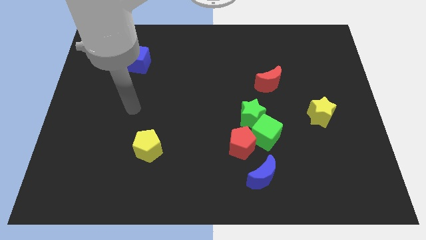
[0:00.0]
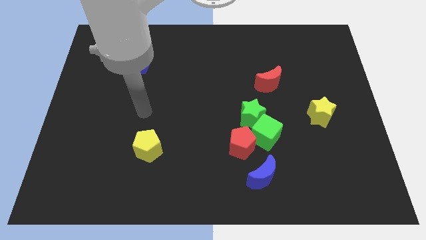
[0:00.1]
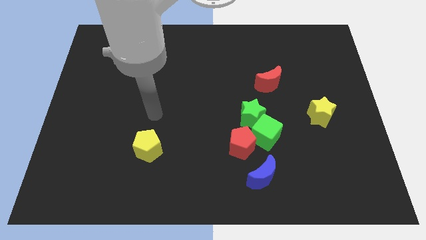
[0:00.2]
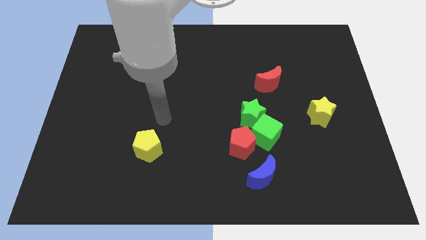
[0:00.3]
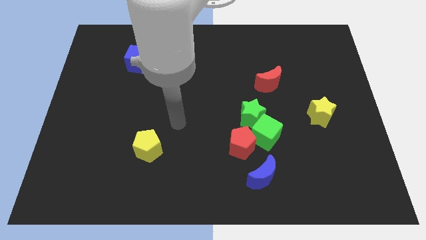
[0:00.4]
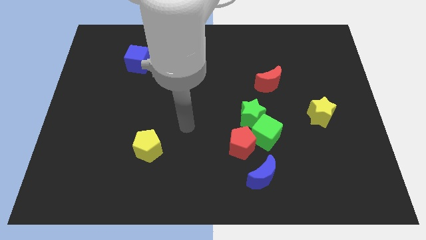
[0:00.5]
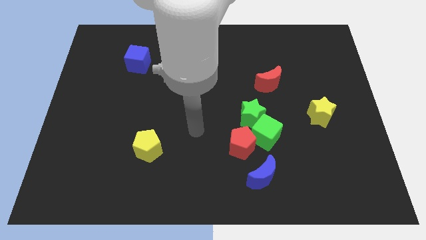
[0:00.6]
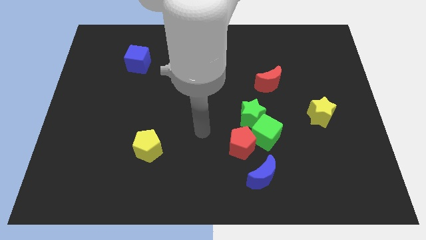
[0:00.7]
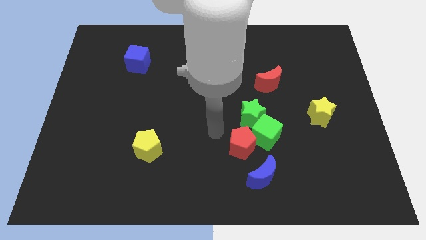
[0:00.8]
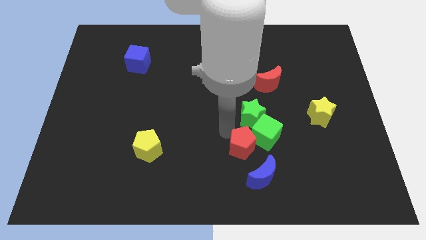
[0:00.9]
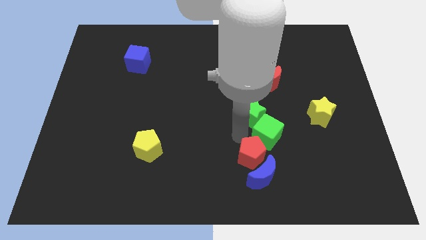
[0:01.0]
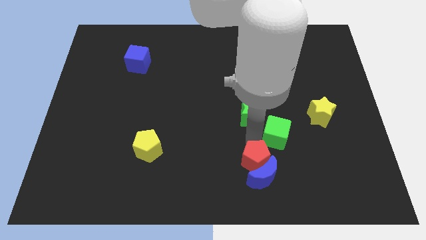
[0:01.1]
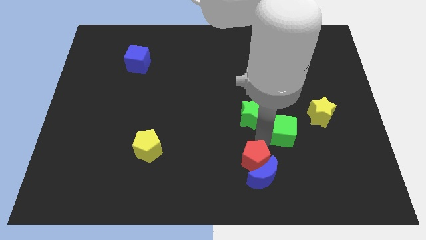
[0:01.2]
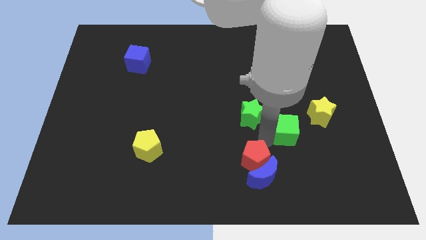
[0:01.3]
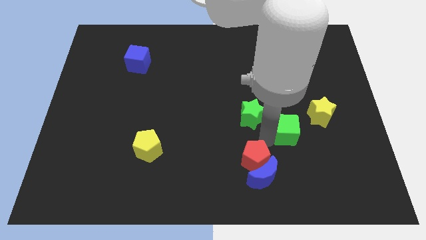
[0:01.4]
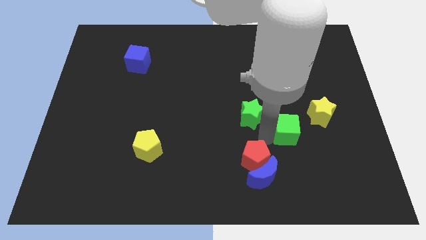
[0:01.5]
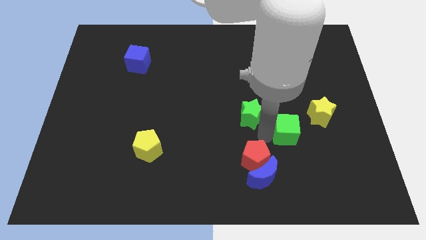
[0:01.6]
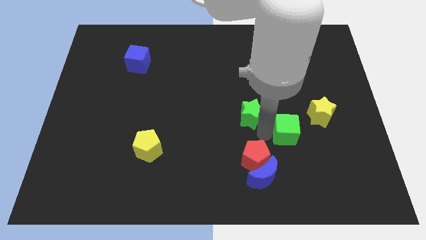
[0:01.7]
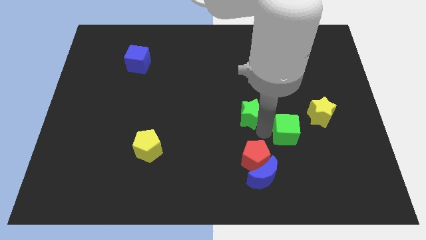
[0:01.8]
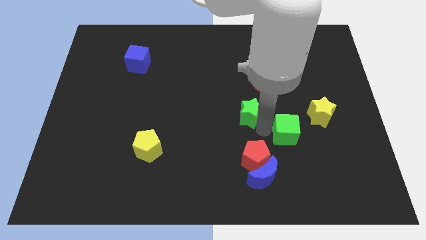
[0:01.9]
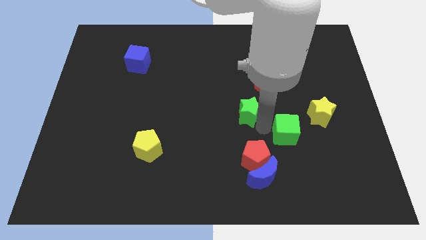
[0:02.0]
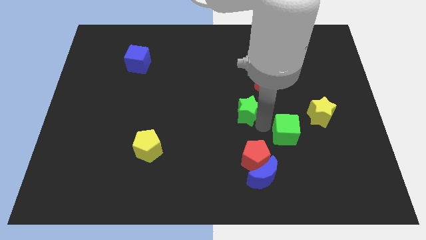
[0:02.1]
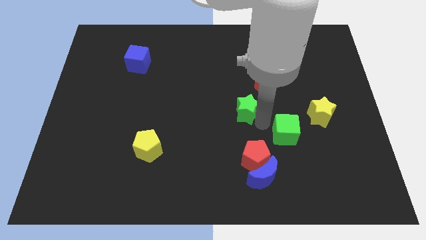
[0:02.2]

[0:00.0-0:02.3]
move the green star away from the green cube and red pentagon

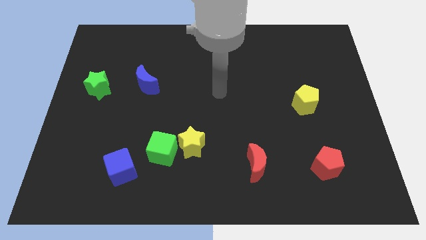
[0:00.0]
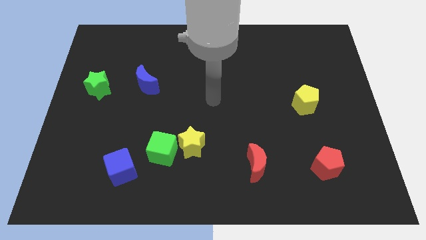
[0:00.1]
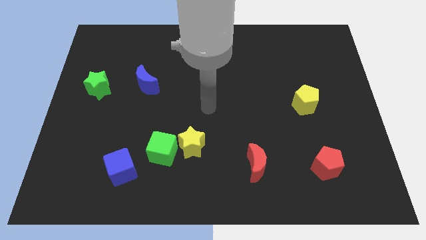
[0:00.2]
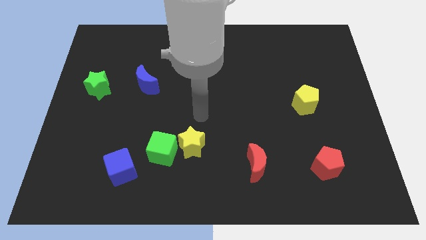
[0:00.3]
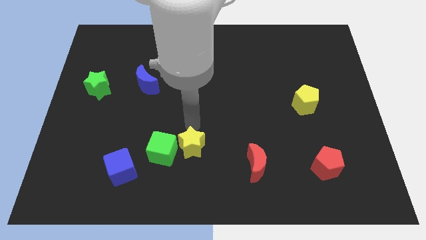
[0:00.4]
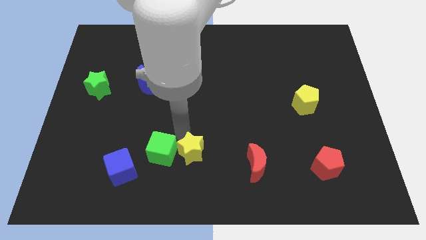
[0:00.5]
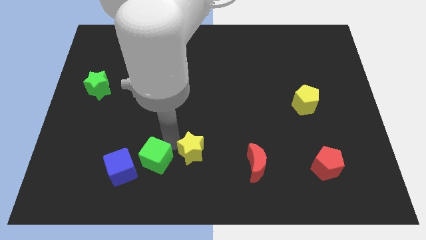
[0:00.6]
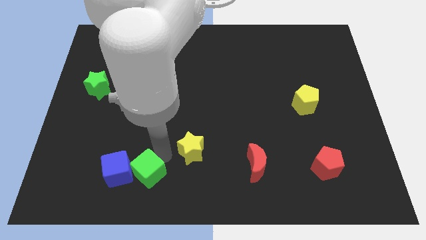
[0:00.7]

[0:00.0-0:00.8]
separate the yellow star from the green cube

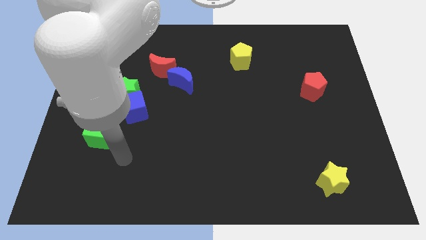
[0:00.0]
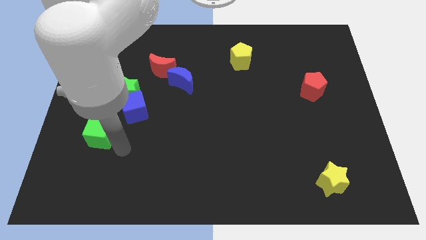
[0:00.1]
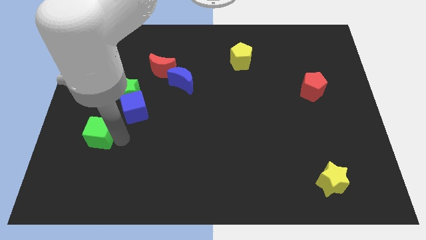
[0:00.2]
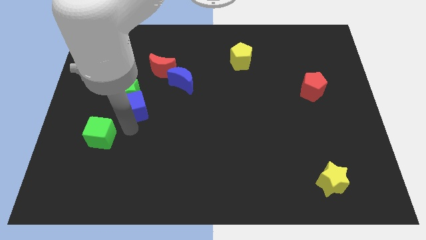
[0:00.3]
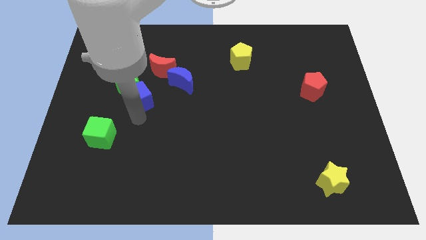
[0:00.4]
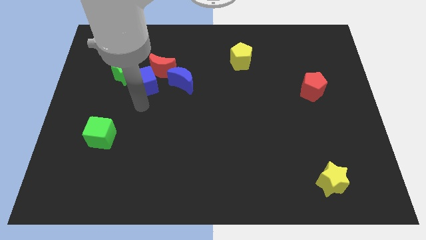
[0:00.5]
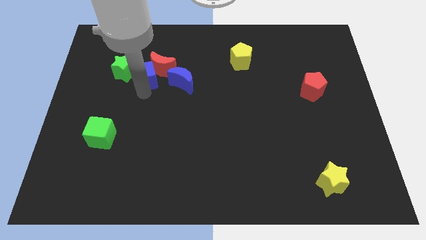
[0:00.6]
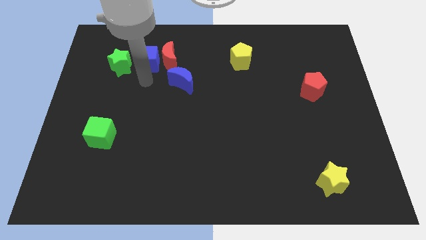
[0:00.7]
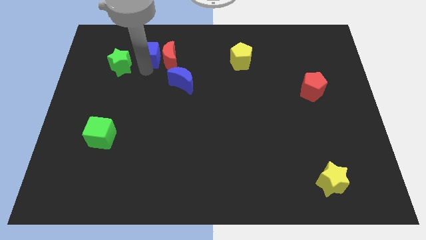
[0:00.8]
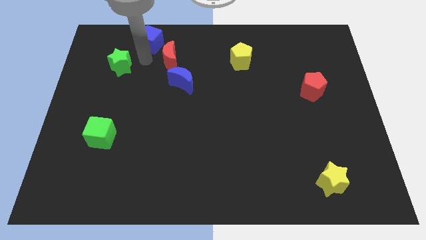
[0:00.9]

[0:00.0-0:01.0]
separate the green star from the blue cube

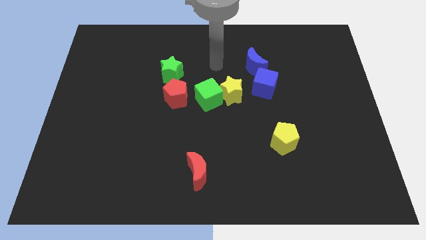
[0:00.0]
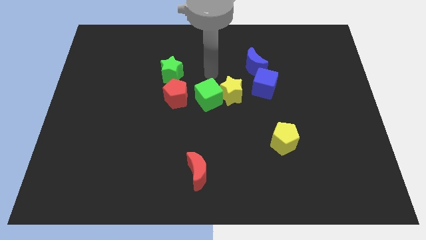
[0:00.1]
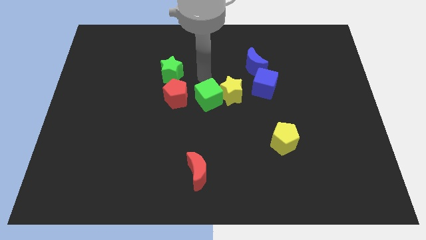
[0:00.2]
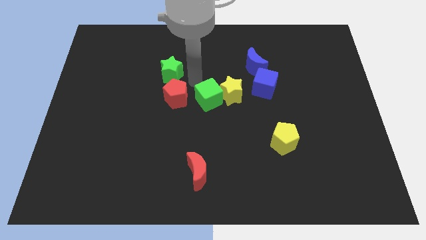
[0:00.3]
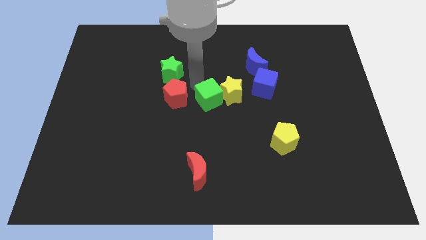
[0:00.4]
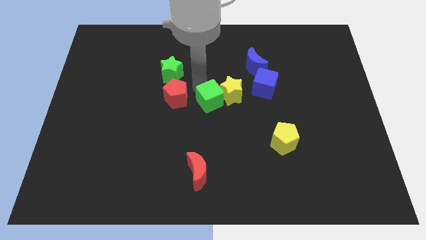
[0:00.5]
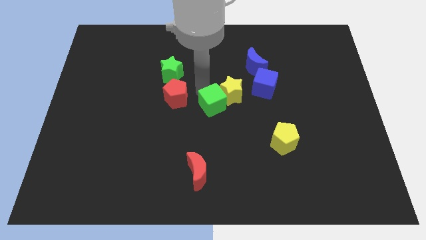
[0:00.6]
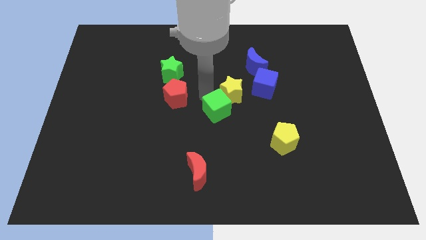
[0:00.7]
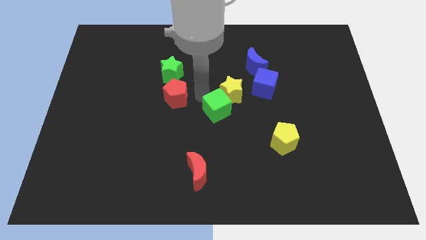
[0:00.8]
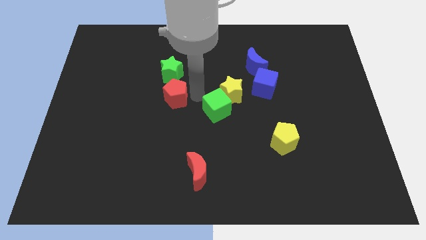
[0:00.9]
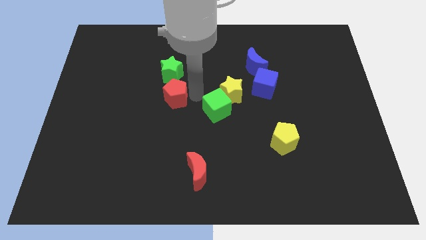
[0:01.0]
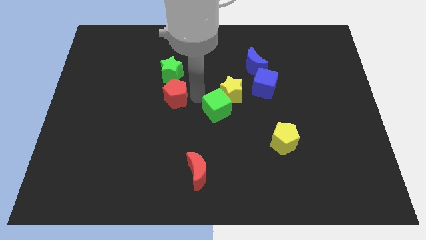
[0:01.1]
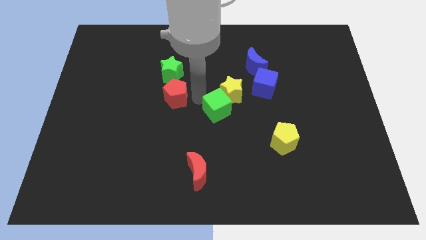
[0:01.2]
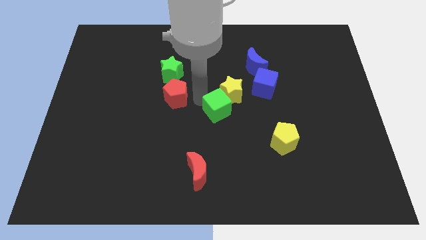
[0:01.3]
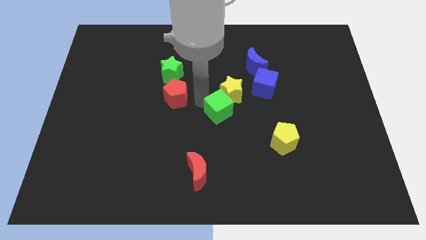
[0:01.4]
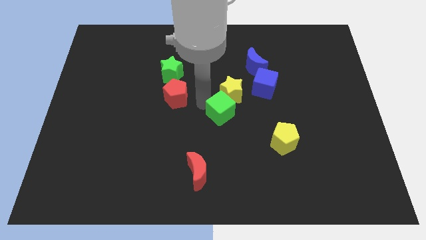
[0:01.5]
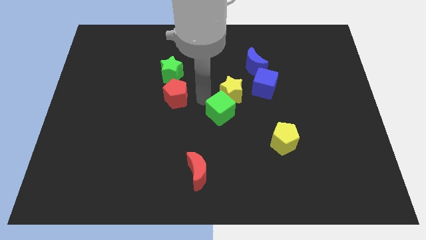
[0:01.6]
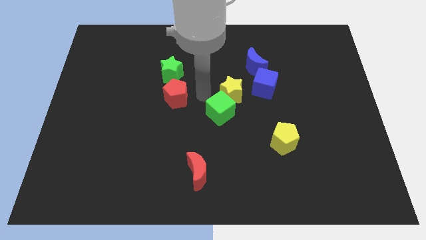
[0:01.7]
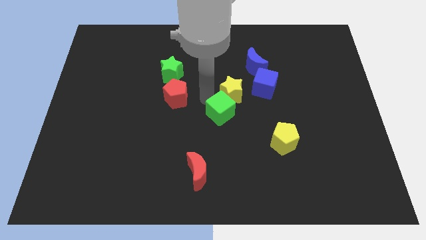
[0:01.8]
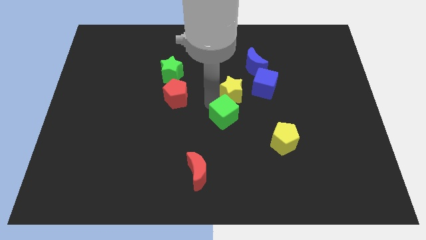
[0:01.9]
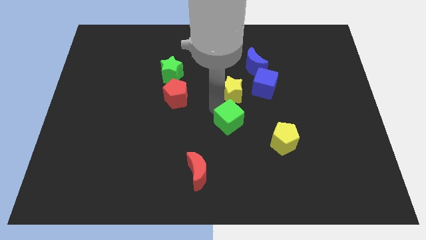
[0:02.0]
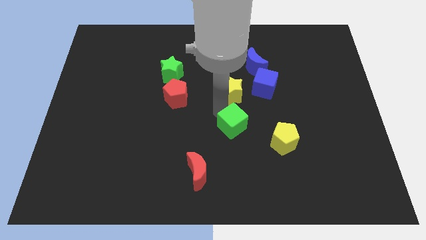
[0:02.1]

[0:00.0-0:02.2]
pull the green cube apart from the yellow star and red pentagon

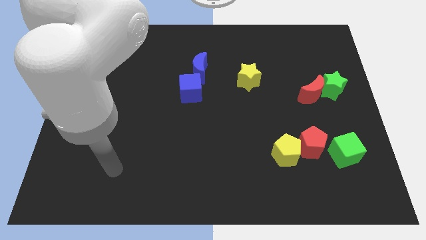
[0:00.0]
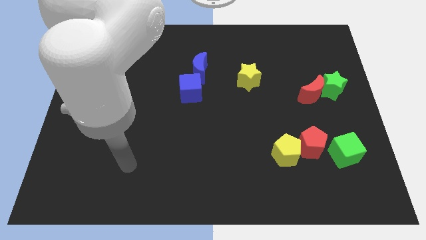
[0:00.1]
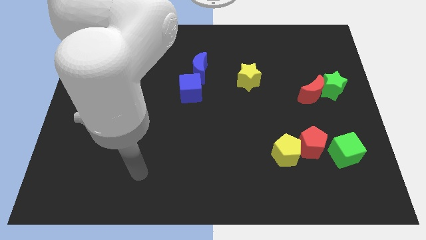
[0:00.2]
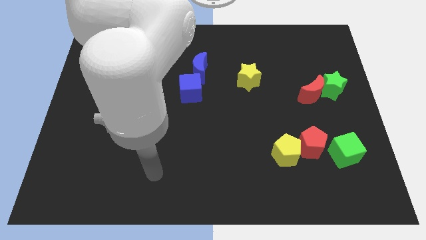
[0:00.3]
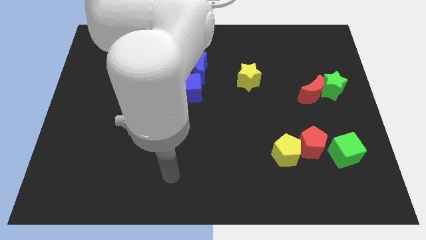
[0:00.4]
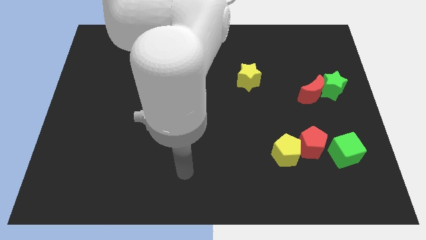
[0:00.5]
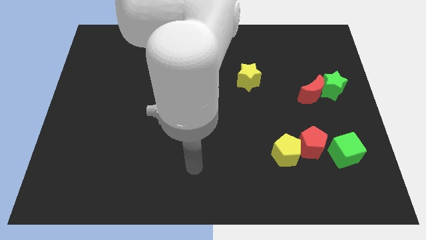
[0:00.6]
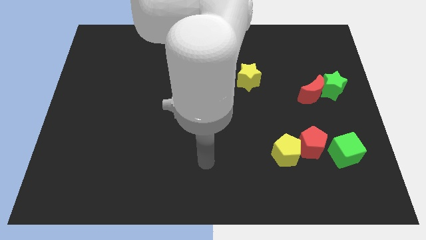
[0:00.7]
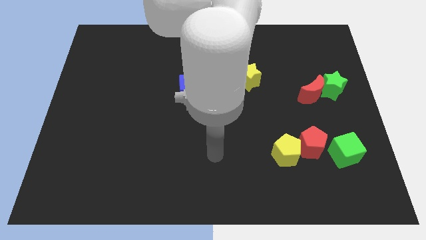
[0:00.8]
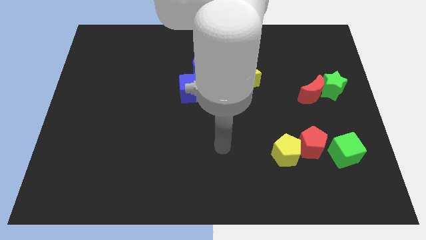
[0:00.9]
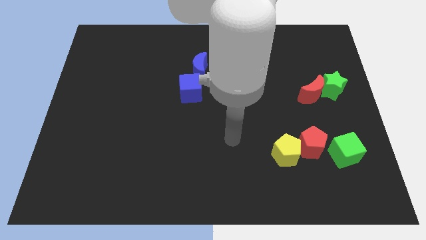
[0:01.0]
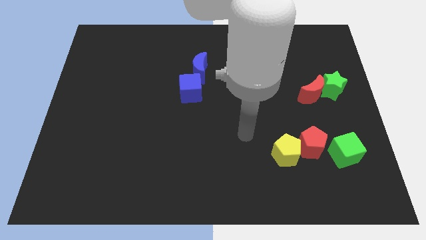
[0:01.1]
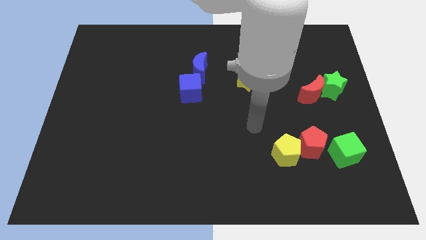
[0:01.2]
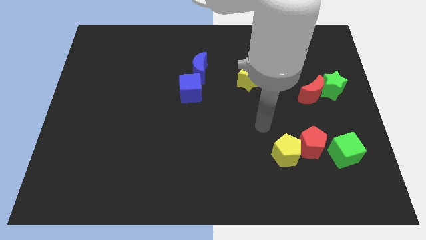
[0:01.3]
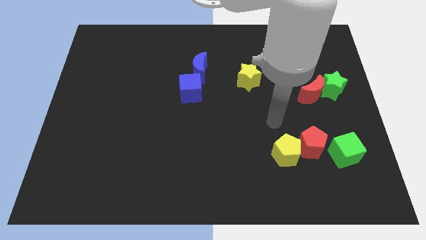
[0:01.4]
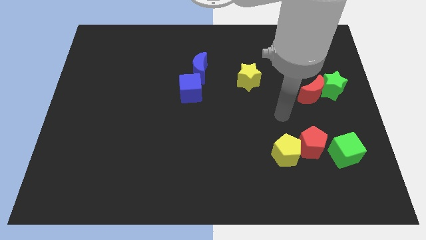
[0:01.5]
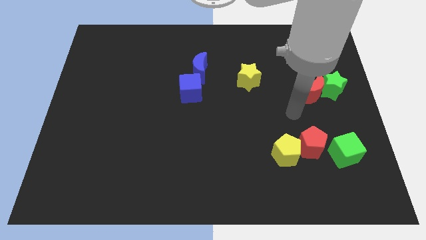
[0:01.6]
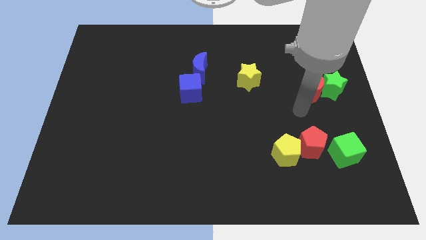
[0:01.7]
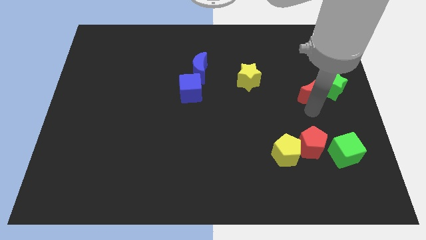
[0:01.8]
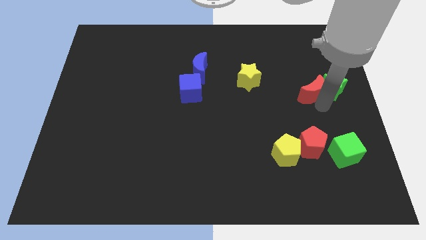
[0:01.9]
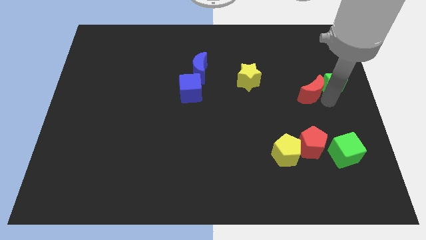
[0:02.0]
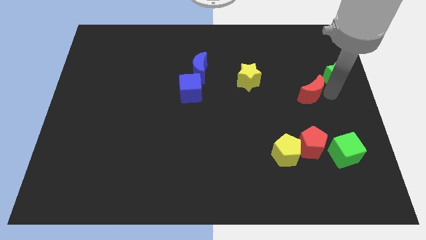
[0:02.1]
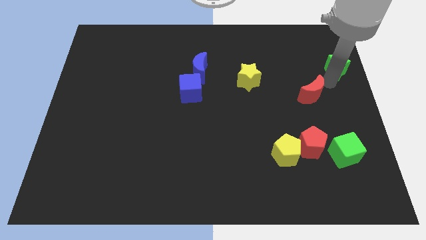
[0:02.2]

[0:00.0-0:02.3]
separate the red moon from the green star

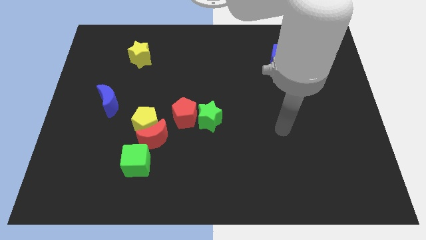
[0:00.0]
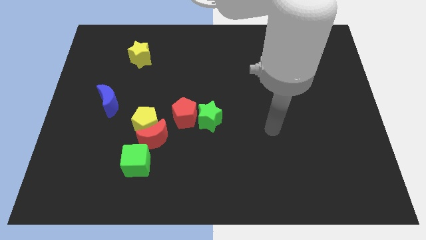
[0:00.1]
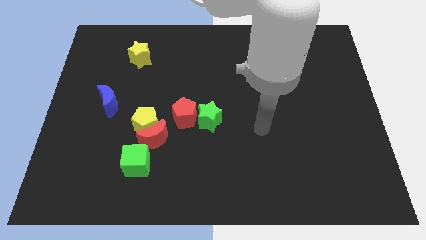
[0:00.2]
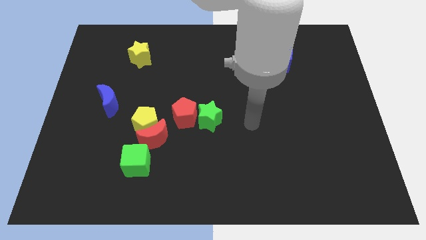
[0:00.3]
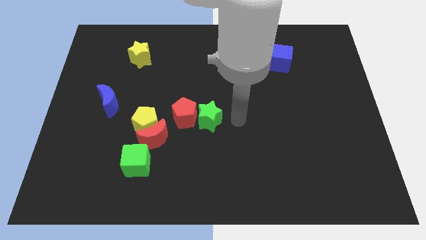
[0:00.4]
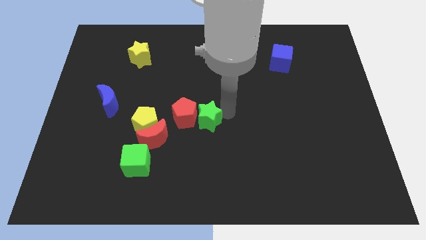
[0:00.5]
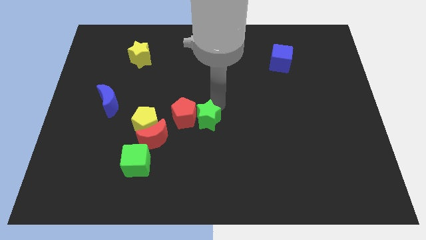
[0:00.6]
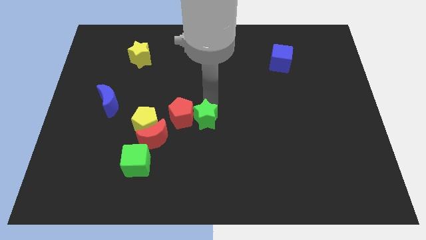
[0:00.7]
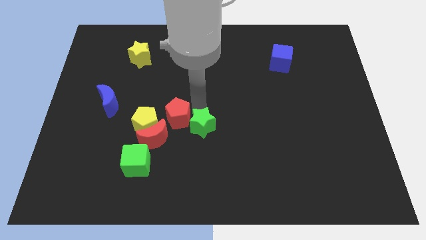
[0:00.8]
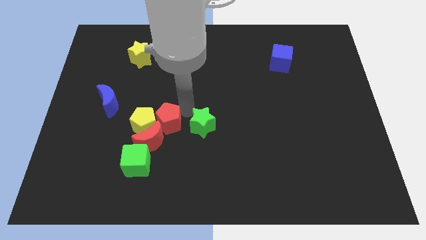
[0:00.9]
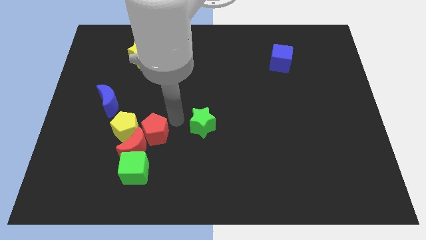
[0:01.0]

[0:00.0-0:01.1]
move the green star away from the red pentagon
